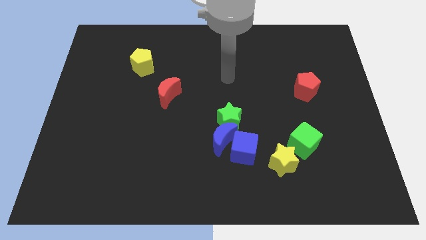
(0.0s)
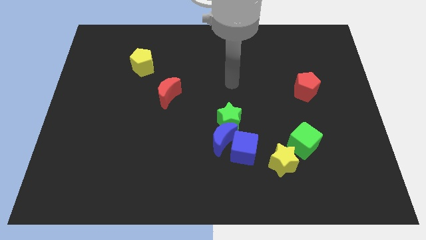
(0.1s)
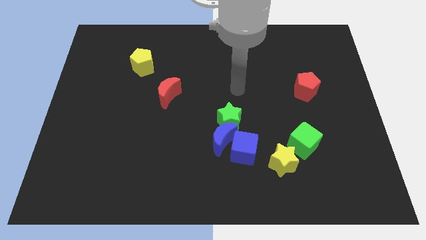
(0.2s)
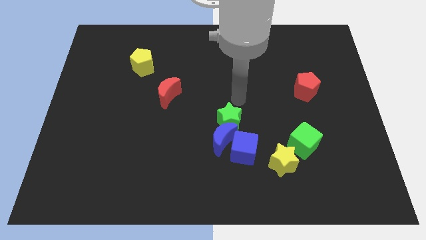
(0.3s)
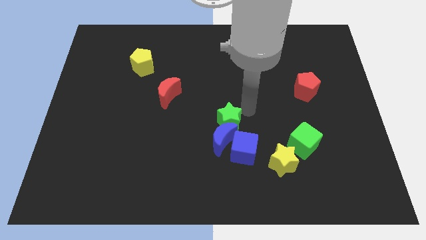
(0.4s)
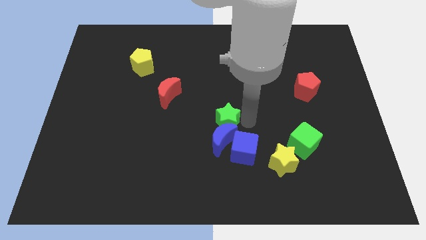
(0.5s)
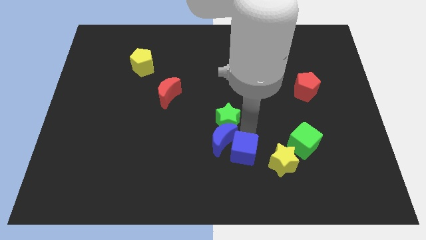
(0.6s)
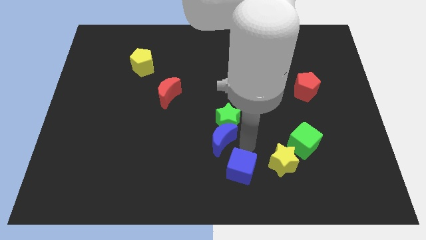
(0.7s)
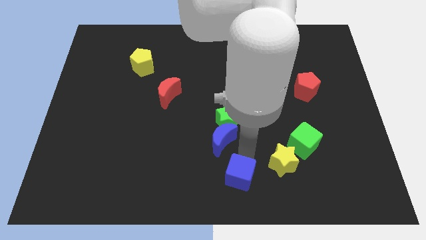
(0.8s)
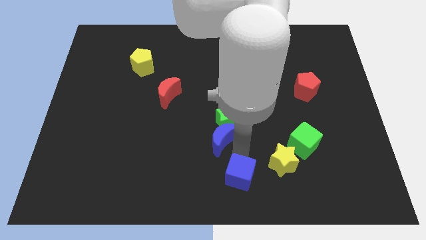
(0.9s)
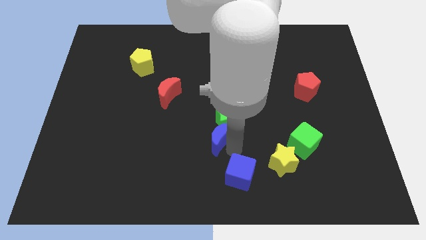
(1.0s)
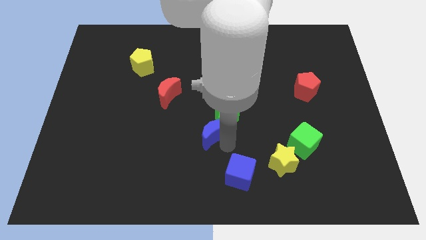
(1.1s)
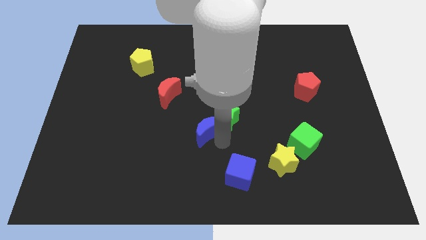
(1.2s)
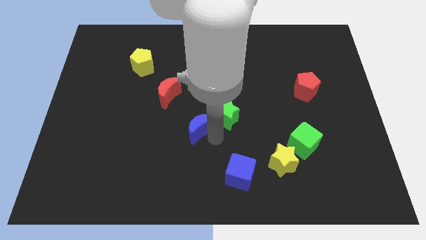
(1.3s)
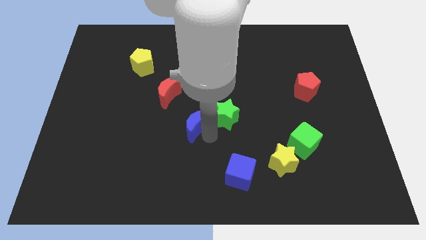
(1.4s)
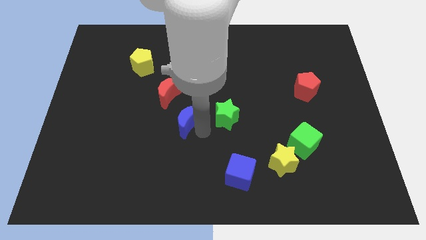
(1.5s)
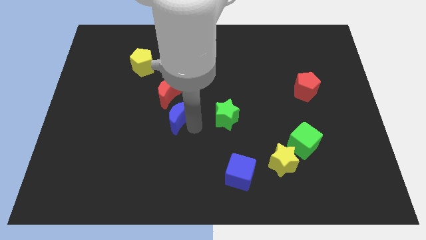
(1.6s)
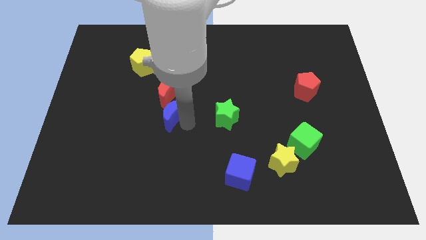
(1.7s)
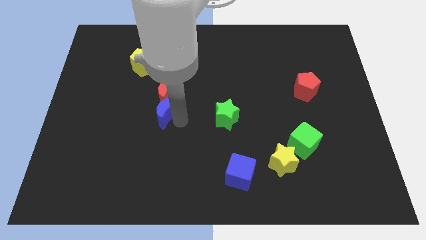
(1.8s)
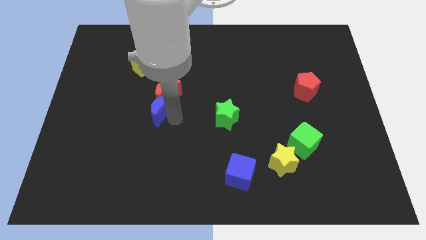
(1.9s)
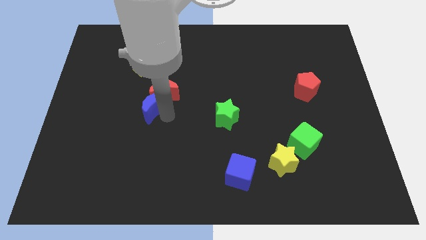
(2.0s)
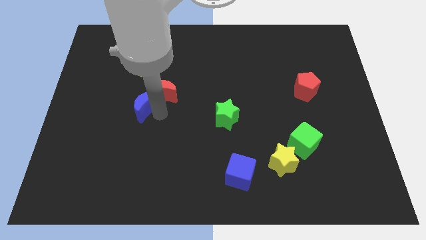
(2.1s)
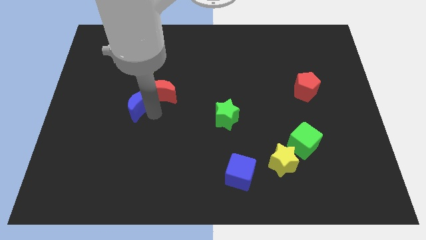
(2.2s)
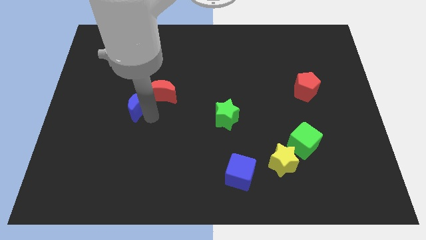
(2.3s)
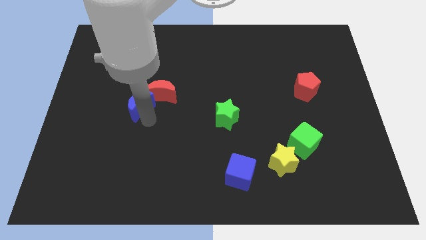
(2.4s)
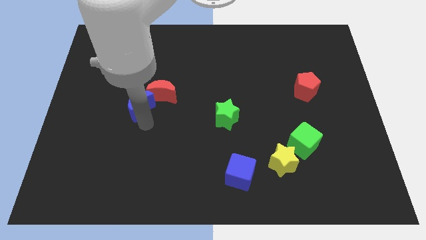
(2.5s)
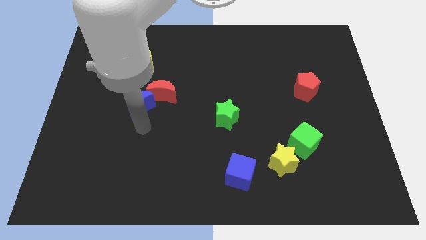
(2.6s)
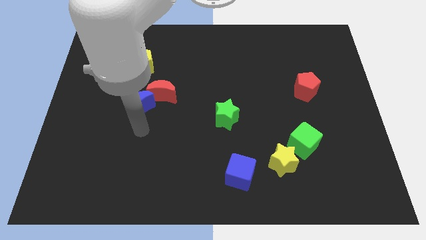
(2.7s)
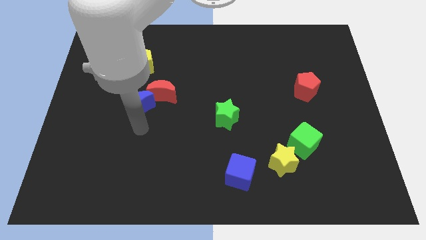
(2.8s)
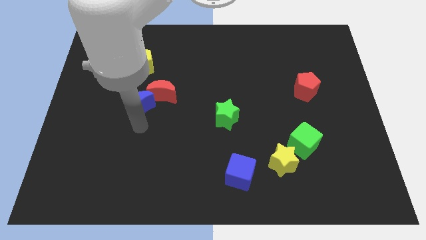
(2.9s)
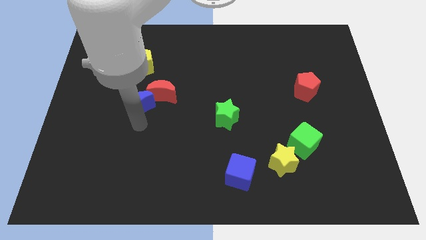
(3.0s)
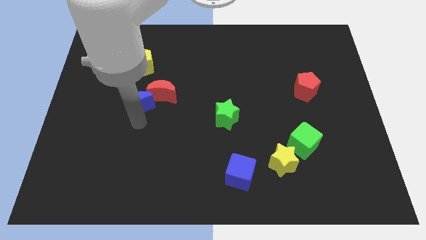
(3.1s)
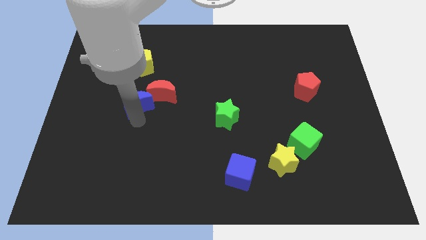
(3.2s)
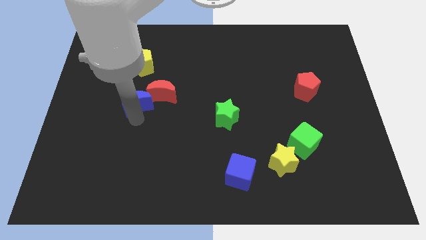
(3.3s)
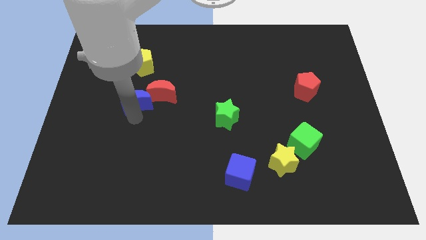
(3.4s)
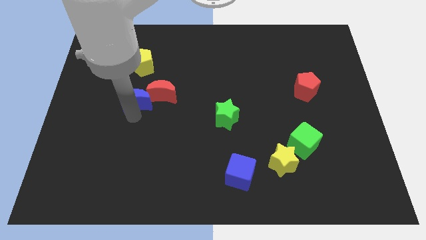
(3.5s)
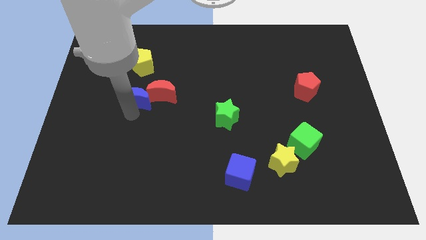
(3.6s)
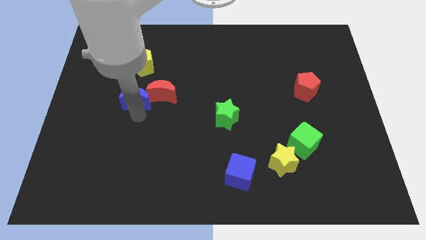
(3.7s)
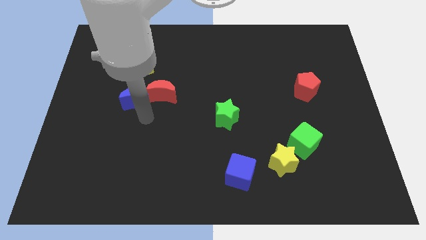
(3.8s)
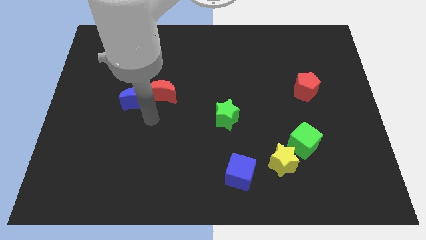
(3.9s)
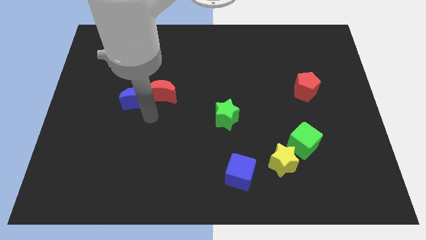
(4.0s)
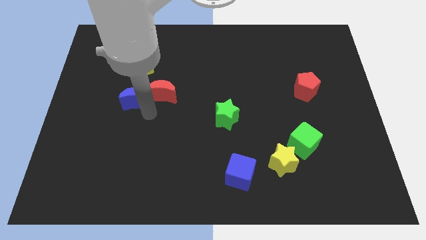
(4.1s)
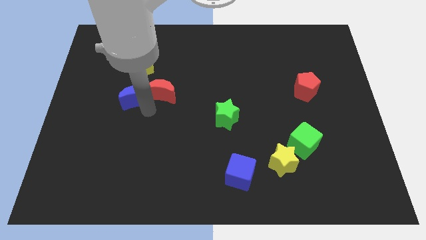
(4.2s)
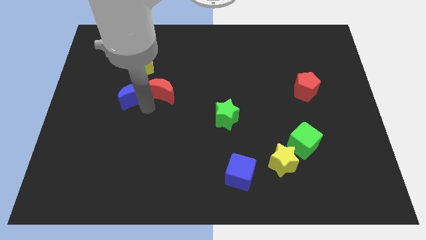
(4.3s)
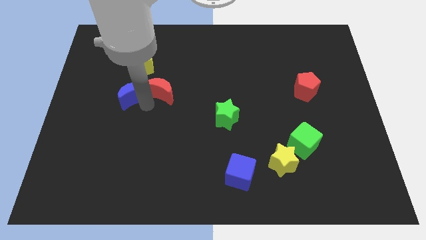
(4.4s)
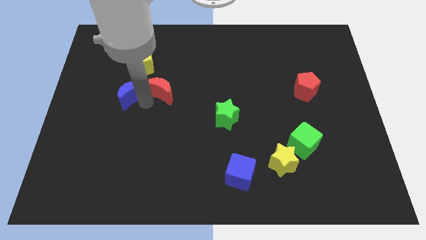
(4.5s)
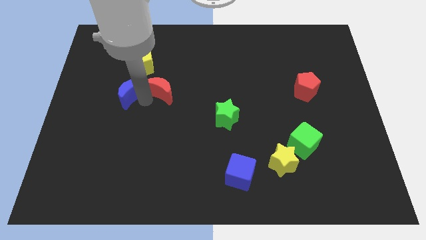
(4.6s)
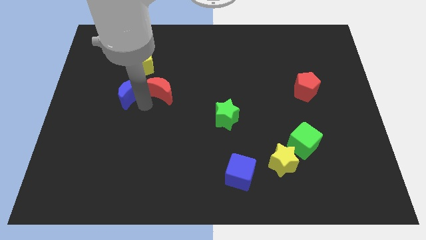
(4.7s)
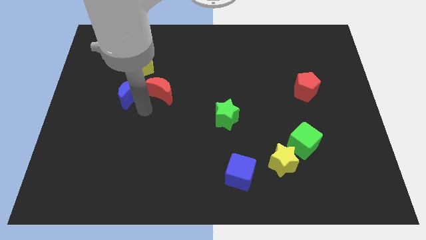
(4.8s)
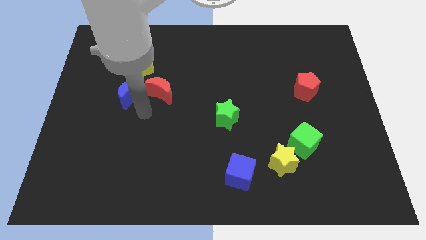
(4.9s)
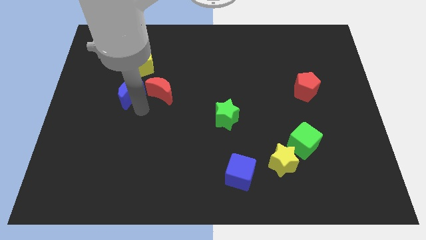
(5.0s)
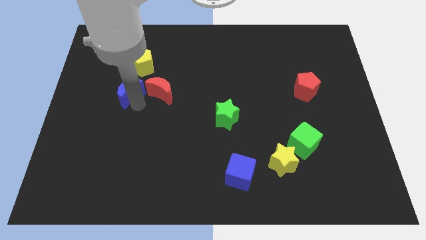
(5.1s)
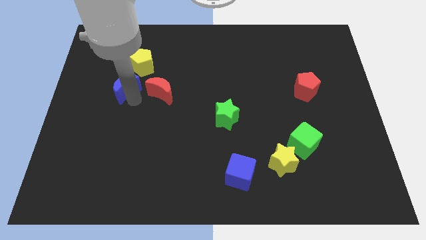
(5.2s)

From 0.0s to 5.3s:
put the blue moon to the bottom left of the yellow pentagon
